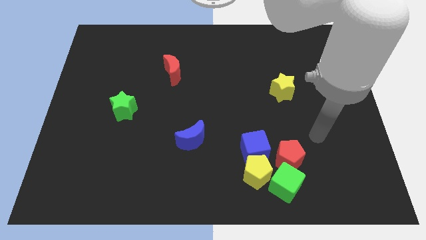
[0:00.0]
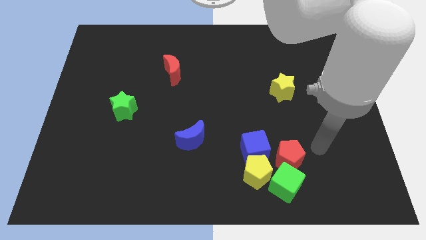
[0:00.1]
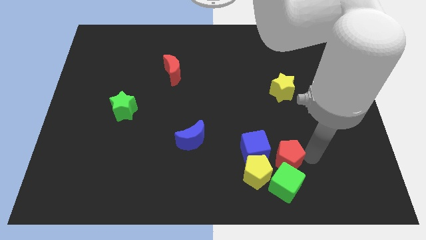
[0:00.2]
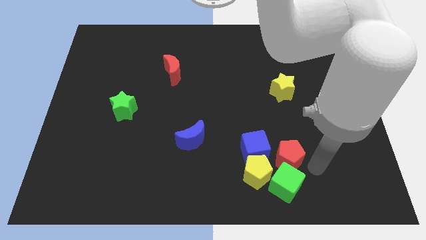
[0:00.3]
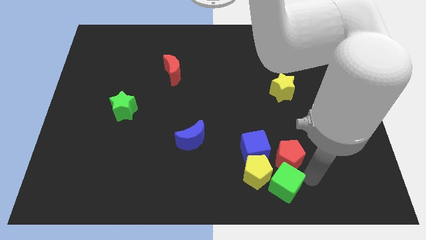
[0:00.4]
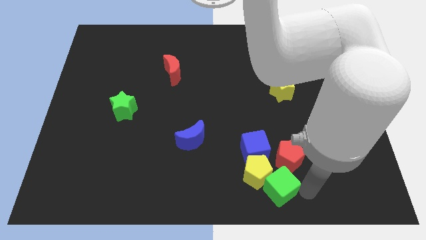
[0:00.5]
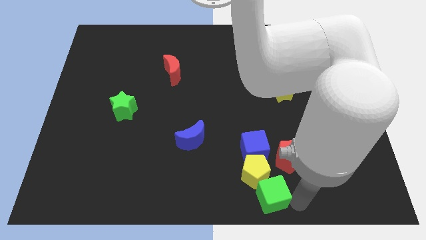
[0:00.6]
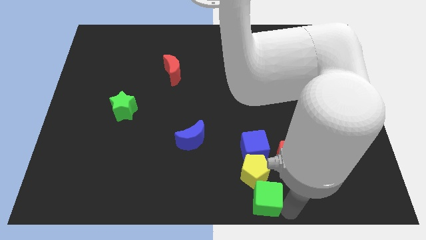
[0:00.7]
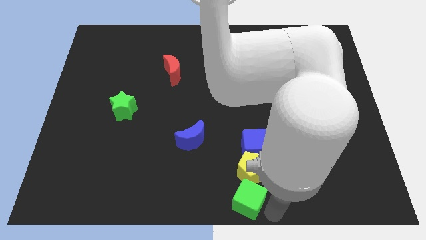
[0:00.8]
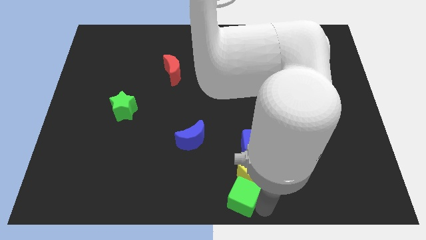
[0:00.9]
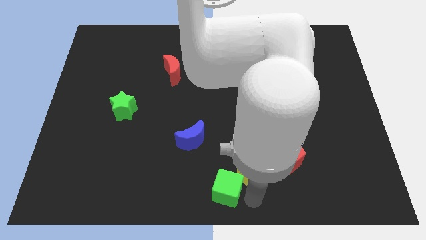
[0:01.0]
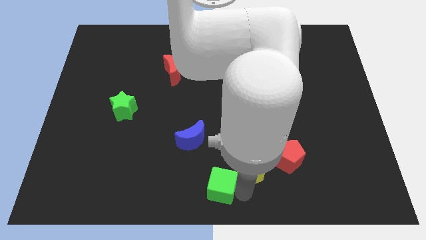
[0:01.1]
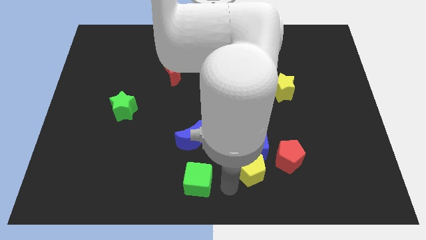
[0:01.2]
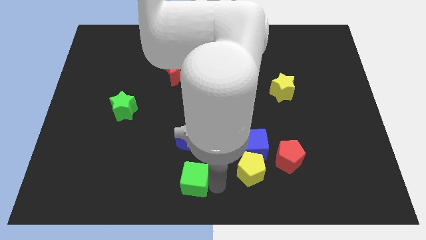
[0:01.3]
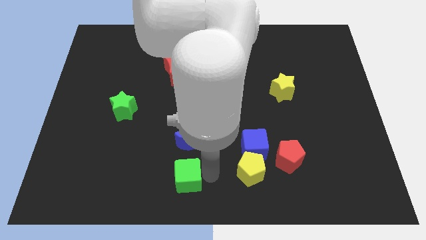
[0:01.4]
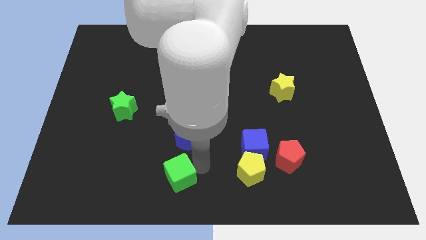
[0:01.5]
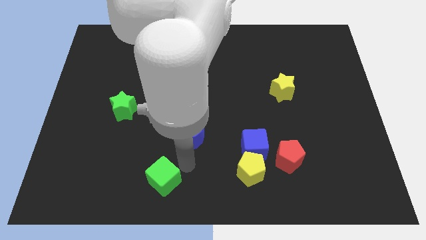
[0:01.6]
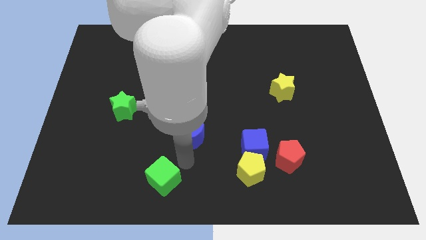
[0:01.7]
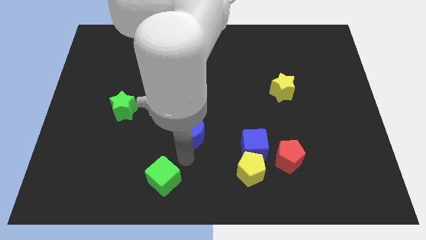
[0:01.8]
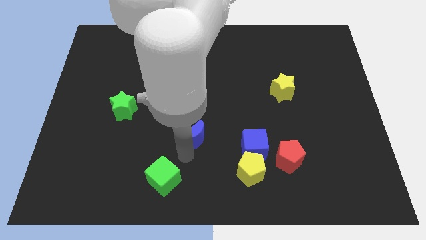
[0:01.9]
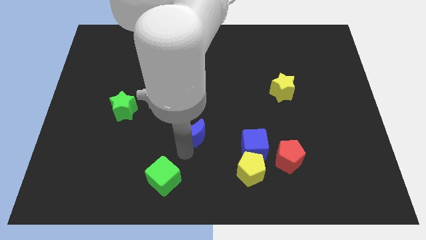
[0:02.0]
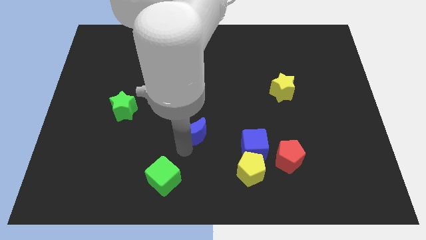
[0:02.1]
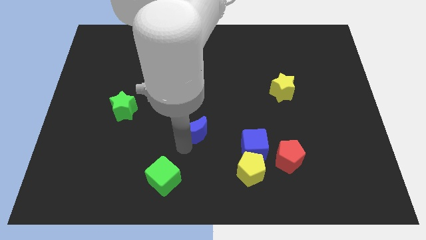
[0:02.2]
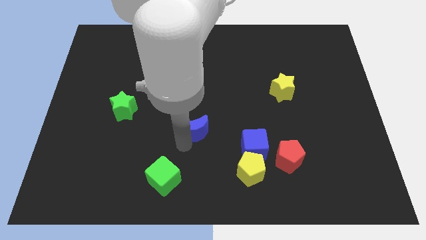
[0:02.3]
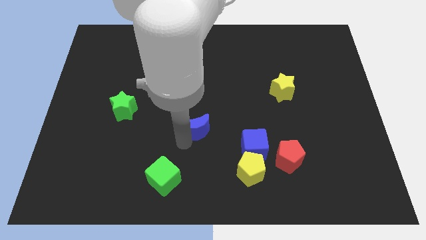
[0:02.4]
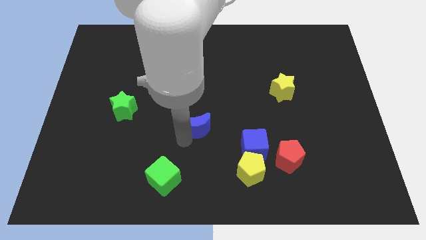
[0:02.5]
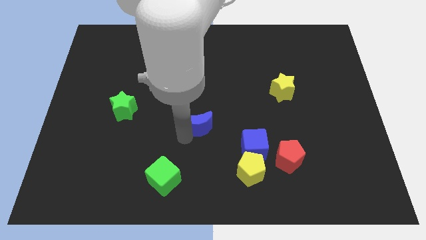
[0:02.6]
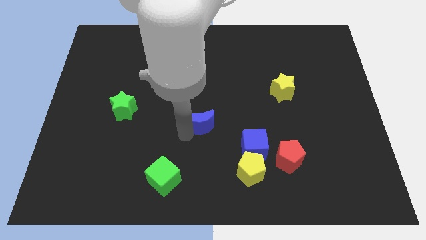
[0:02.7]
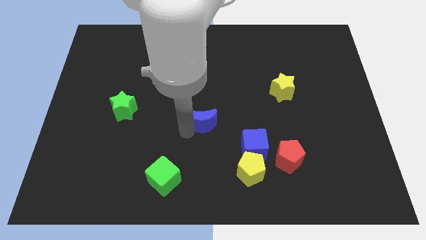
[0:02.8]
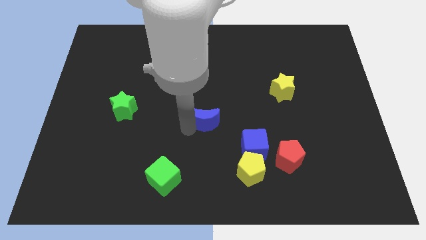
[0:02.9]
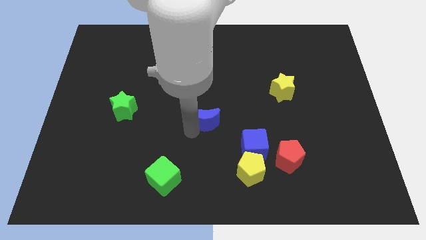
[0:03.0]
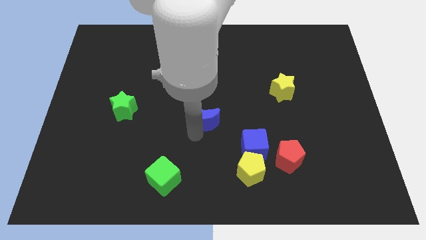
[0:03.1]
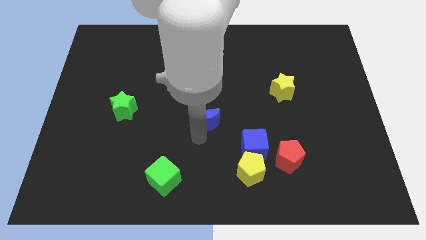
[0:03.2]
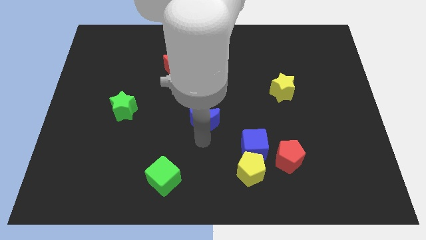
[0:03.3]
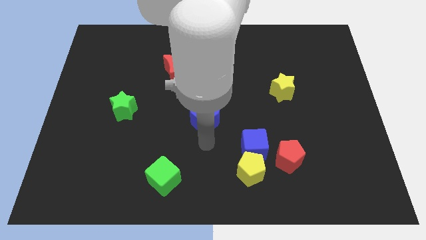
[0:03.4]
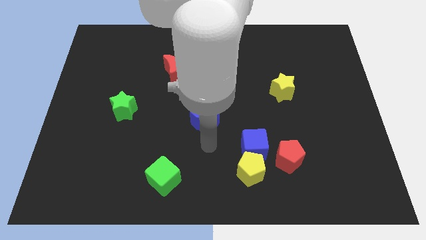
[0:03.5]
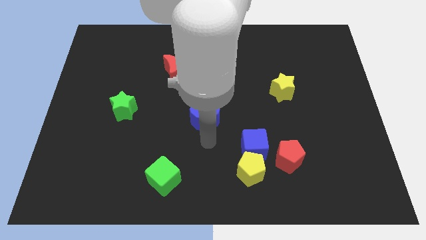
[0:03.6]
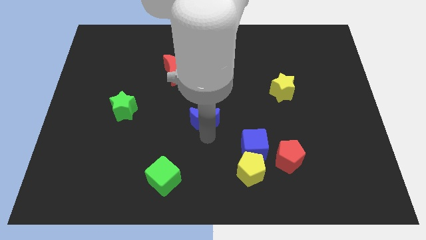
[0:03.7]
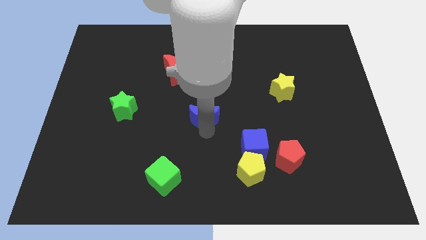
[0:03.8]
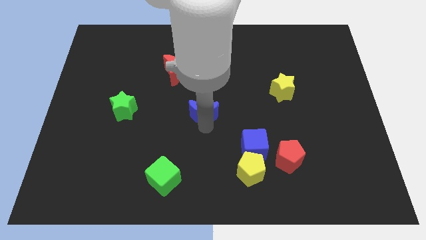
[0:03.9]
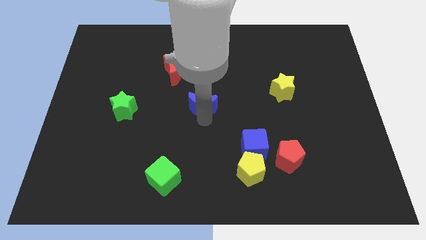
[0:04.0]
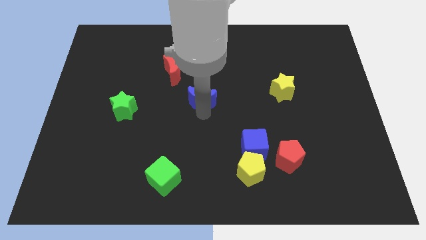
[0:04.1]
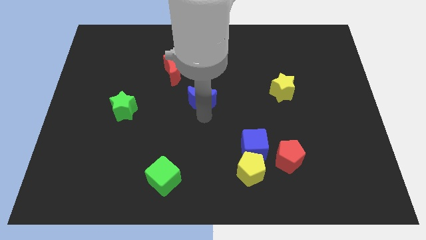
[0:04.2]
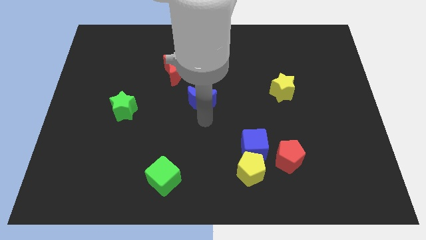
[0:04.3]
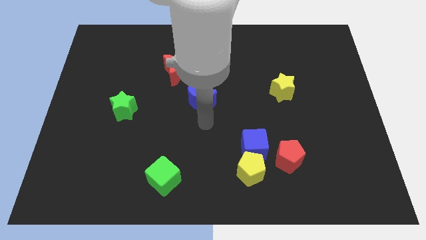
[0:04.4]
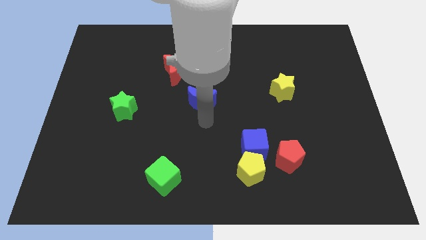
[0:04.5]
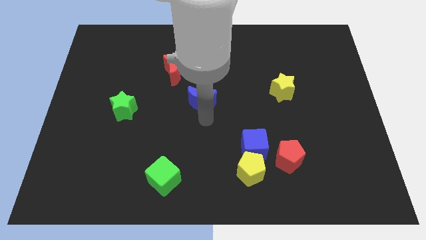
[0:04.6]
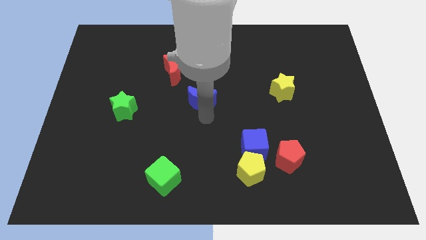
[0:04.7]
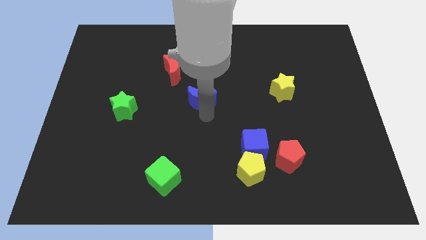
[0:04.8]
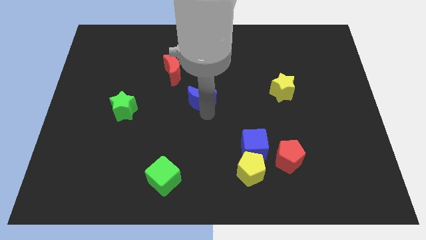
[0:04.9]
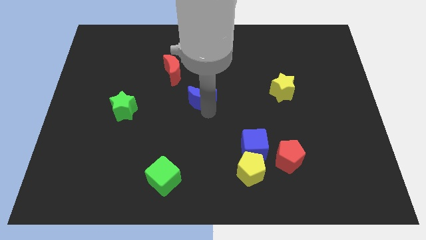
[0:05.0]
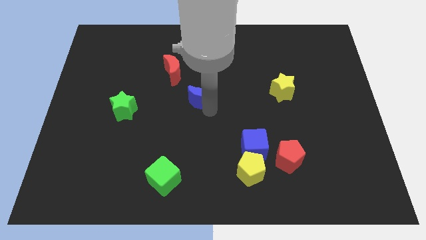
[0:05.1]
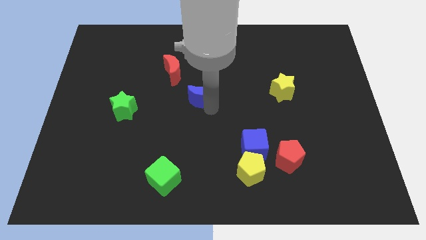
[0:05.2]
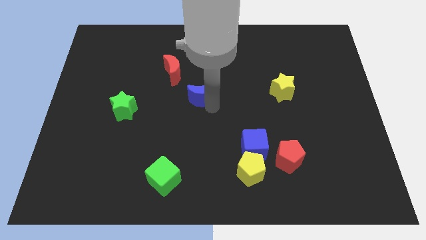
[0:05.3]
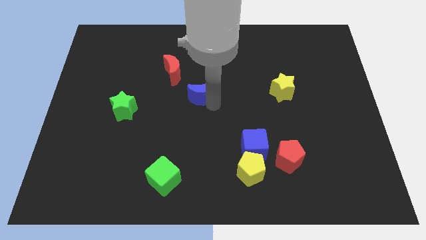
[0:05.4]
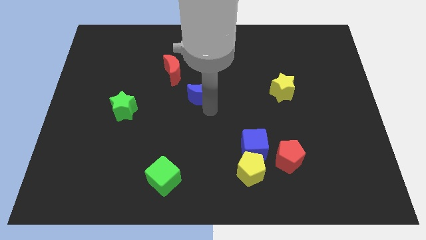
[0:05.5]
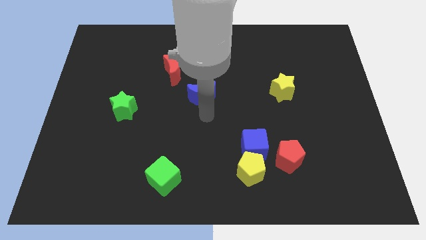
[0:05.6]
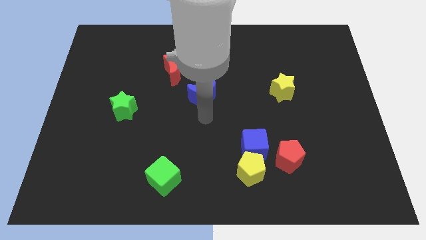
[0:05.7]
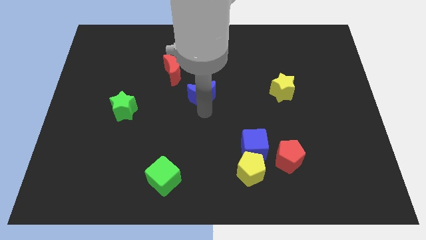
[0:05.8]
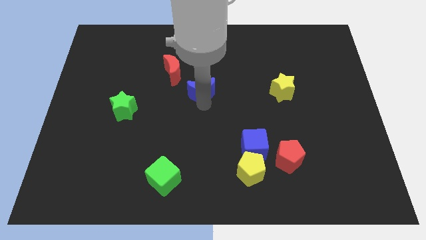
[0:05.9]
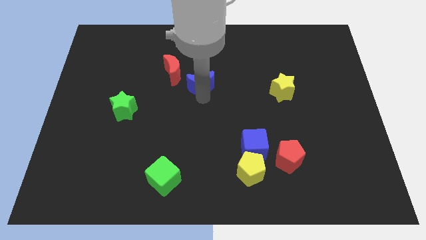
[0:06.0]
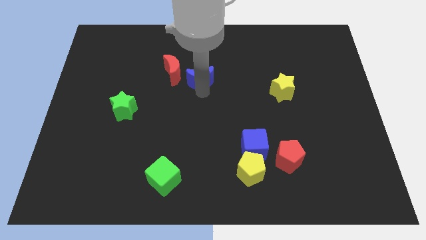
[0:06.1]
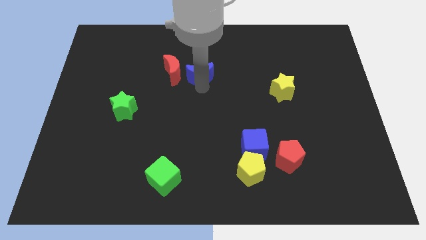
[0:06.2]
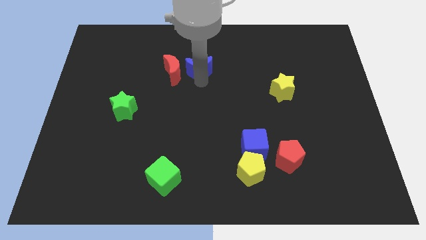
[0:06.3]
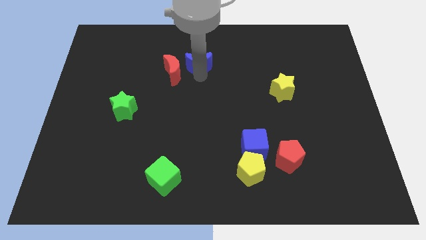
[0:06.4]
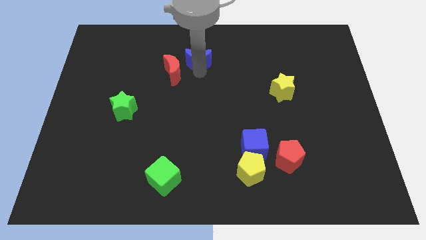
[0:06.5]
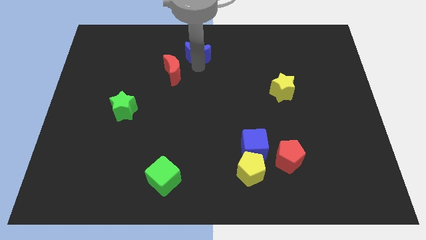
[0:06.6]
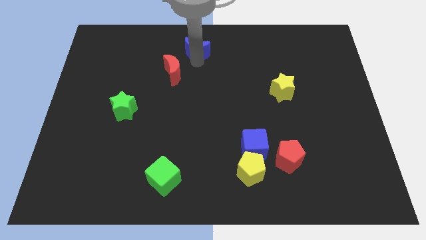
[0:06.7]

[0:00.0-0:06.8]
move the blue moon to the top side

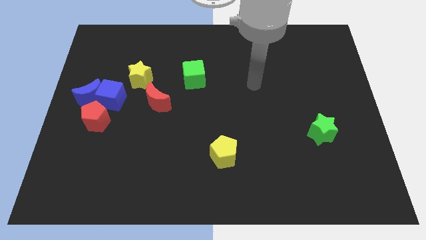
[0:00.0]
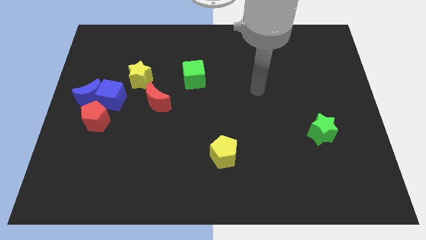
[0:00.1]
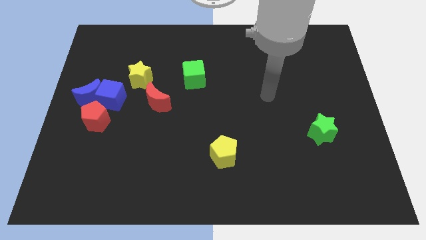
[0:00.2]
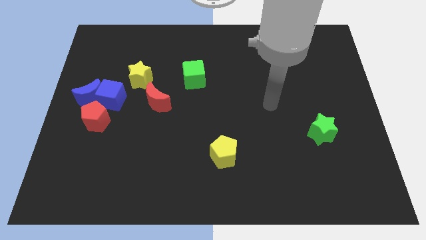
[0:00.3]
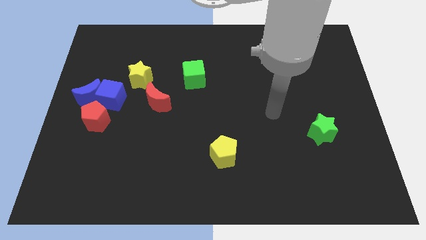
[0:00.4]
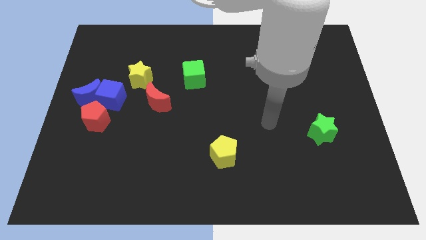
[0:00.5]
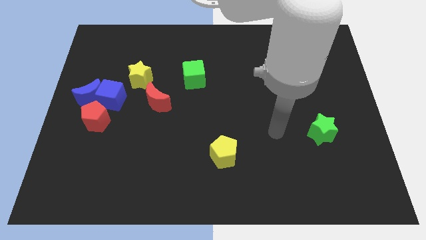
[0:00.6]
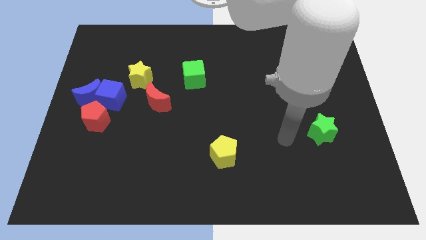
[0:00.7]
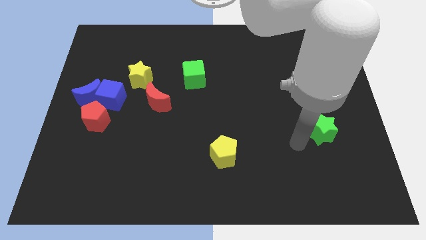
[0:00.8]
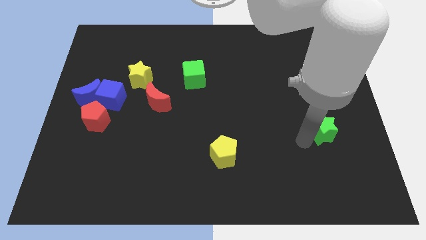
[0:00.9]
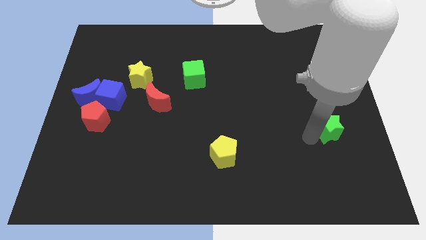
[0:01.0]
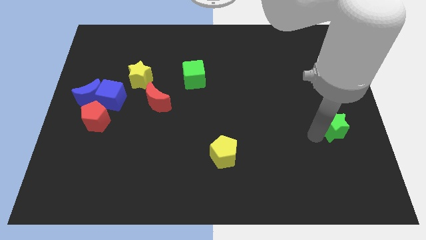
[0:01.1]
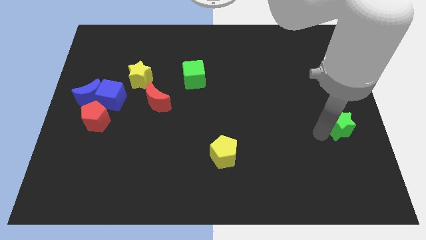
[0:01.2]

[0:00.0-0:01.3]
slide the green star to the right side
